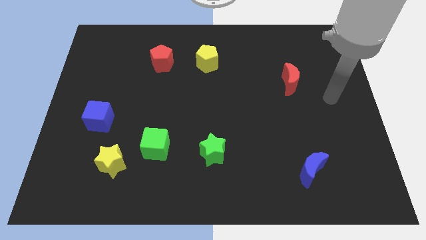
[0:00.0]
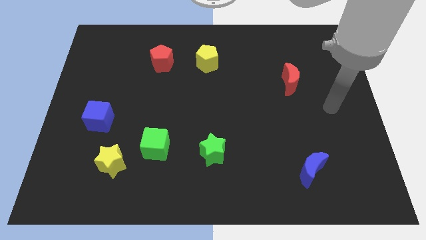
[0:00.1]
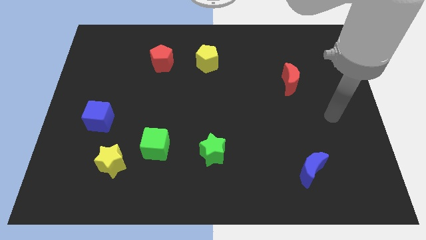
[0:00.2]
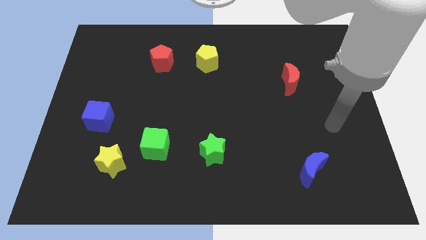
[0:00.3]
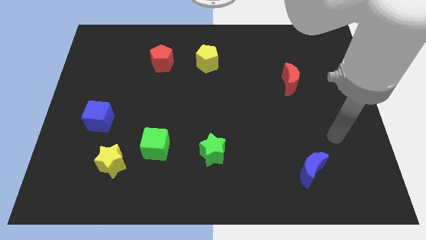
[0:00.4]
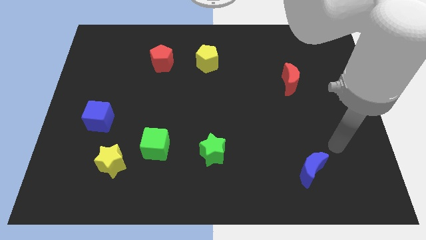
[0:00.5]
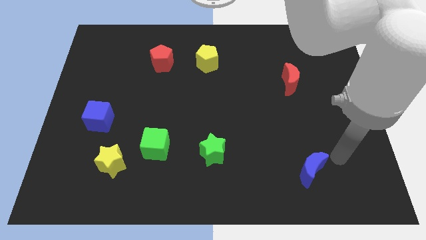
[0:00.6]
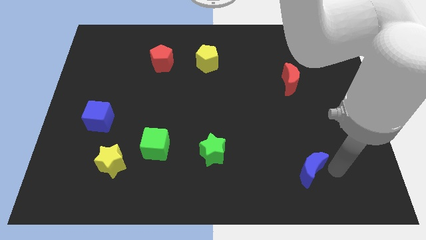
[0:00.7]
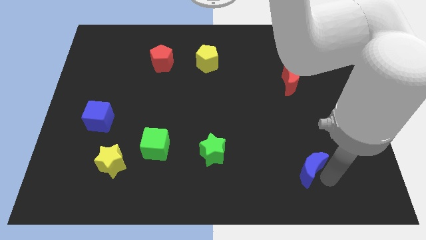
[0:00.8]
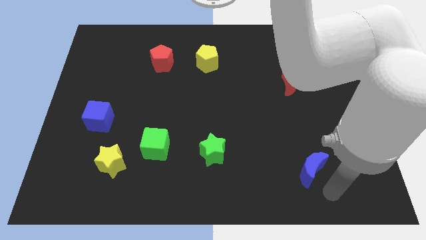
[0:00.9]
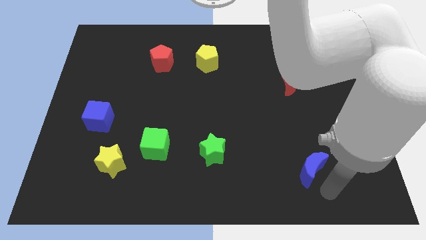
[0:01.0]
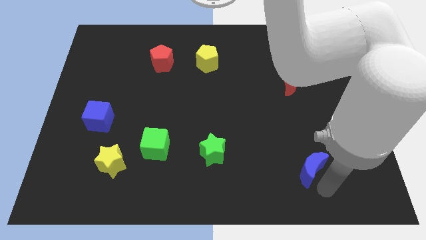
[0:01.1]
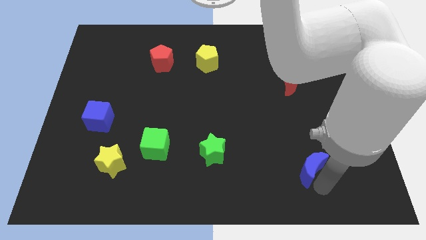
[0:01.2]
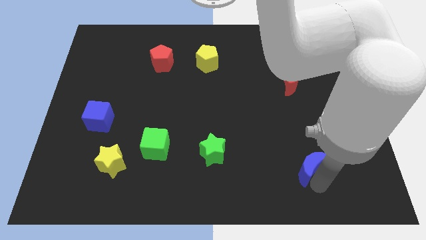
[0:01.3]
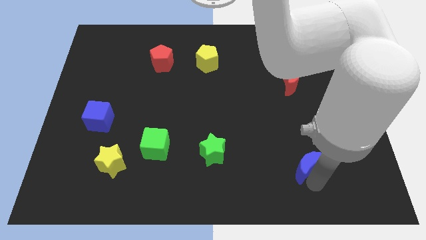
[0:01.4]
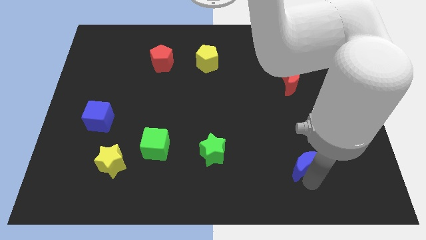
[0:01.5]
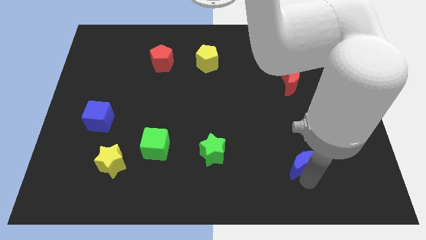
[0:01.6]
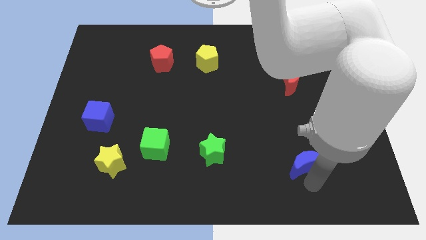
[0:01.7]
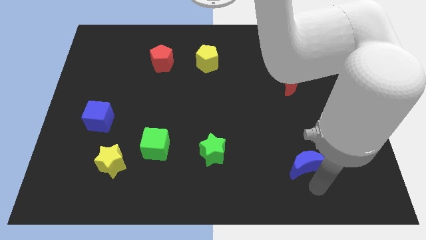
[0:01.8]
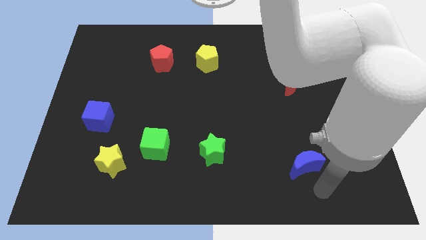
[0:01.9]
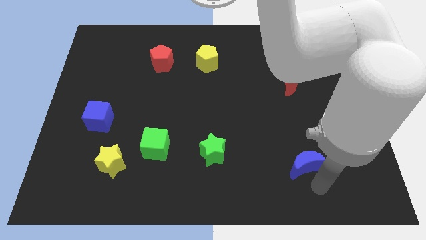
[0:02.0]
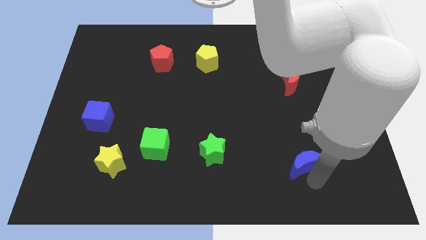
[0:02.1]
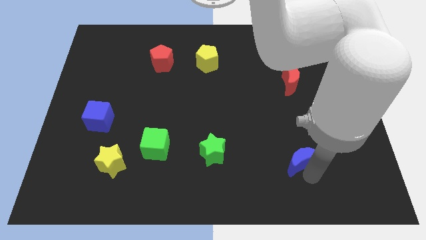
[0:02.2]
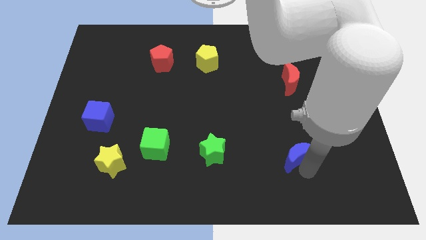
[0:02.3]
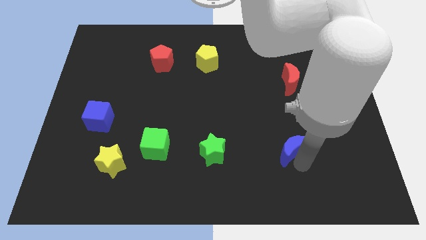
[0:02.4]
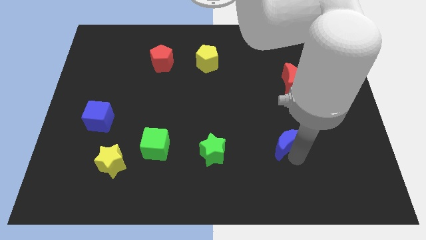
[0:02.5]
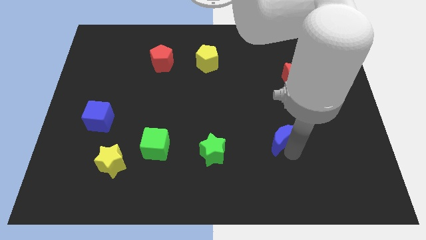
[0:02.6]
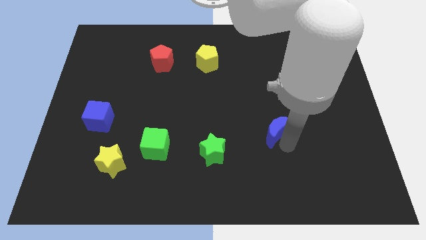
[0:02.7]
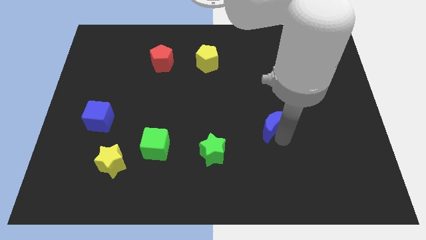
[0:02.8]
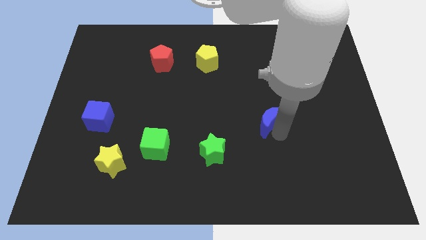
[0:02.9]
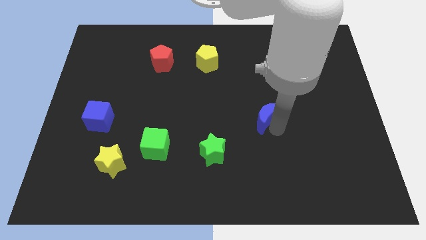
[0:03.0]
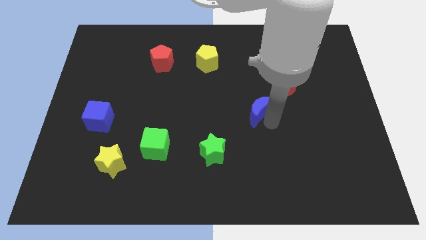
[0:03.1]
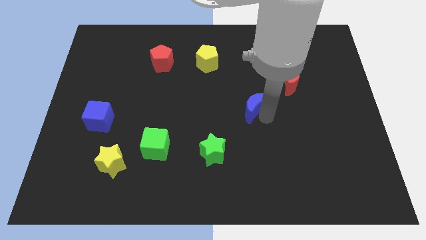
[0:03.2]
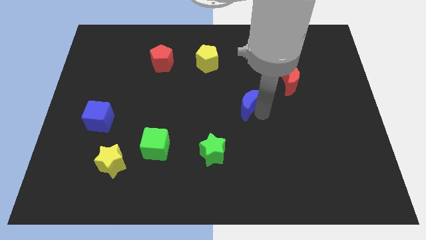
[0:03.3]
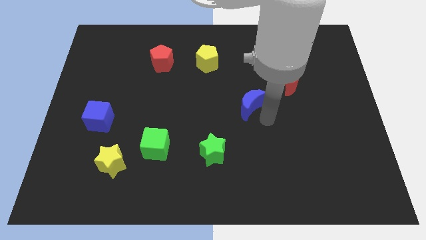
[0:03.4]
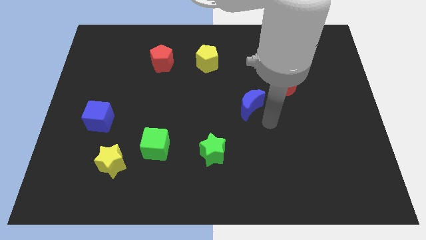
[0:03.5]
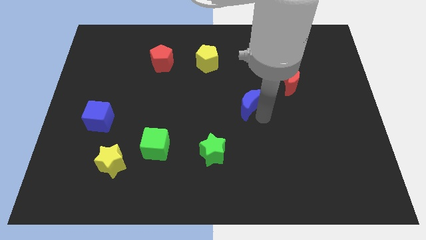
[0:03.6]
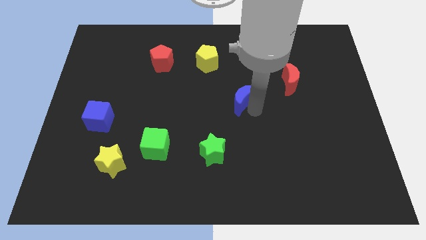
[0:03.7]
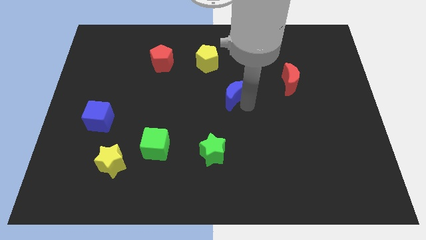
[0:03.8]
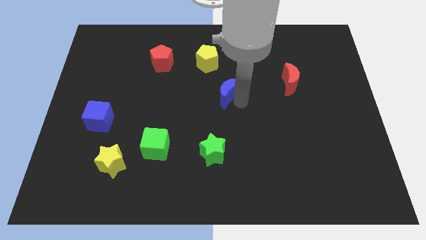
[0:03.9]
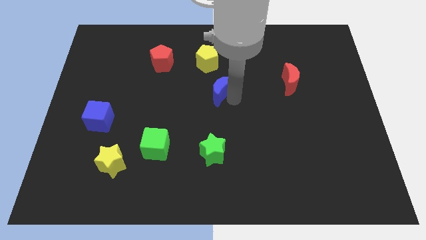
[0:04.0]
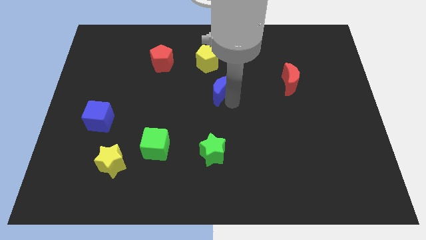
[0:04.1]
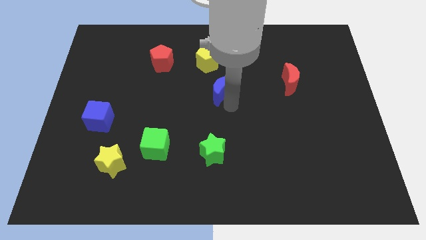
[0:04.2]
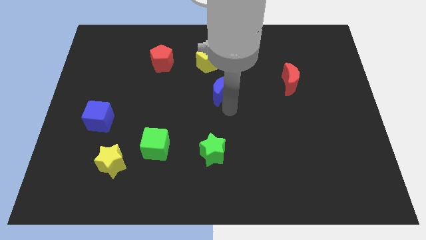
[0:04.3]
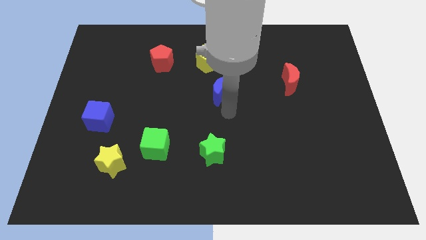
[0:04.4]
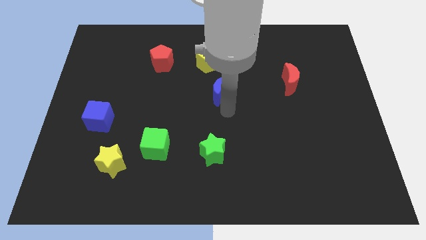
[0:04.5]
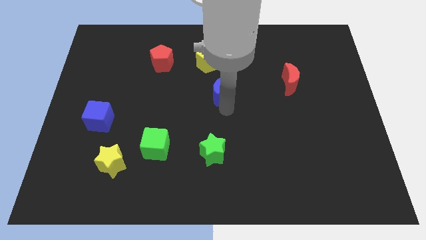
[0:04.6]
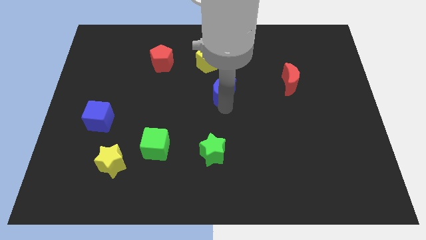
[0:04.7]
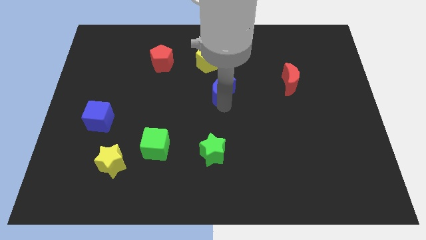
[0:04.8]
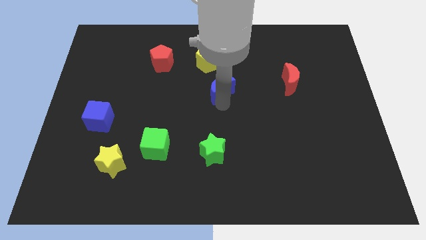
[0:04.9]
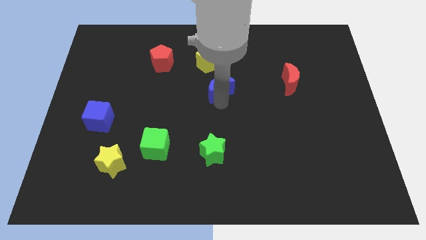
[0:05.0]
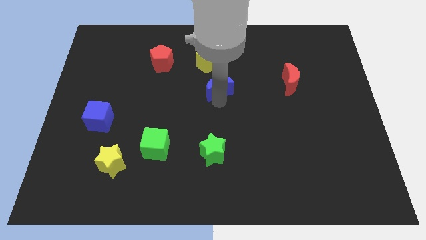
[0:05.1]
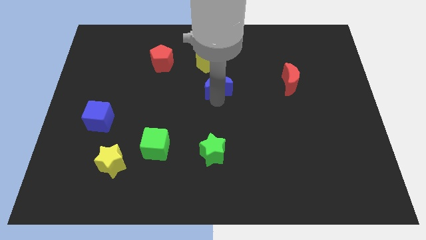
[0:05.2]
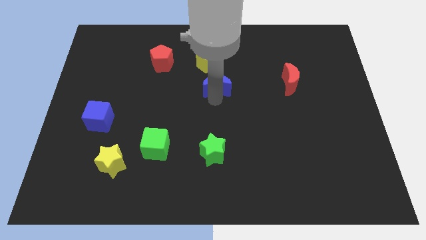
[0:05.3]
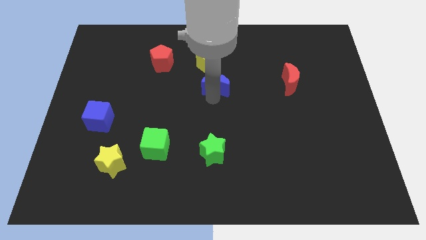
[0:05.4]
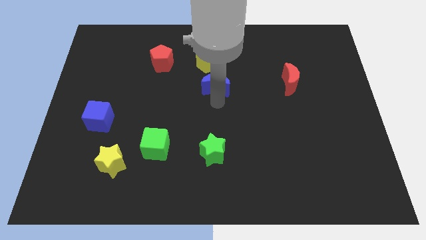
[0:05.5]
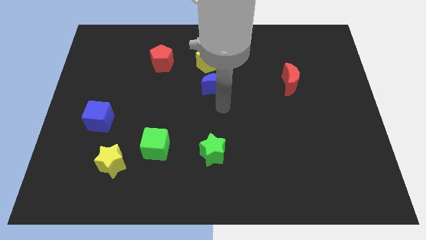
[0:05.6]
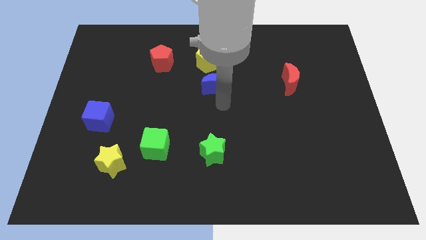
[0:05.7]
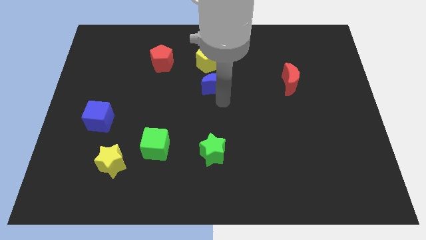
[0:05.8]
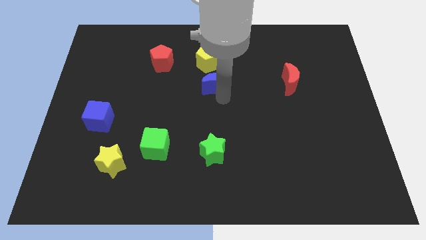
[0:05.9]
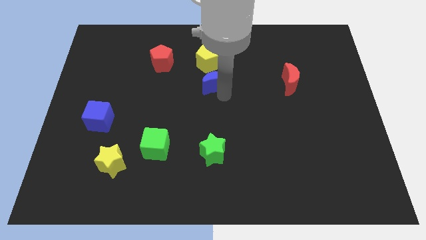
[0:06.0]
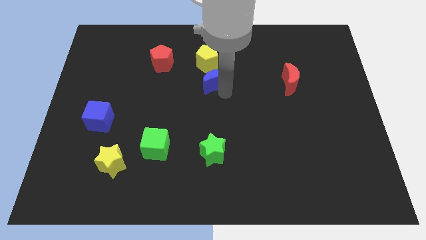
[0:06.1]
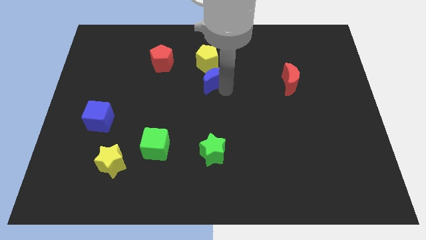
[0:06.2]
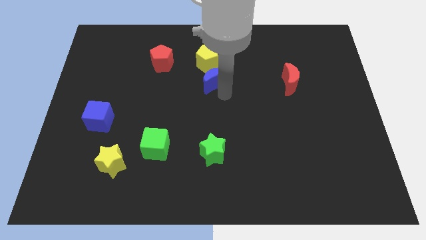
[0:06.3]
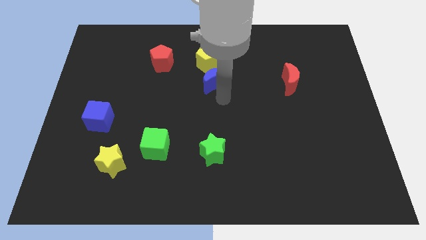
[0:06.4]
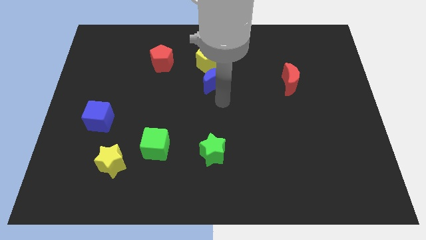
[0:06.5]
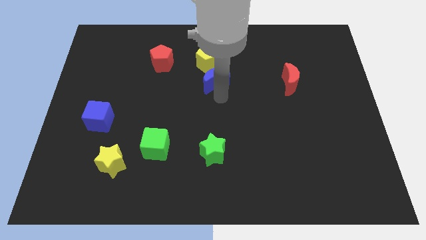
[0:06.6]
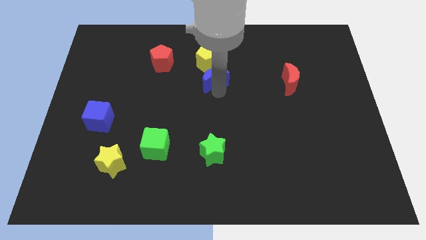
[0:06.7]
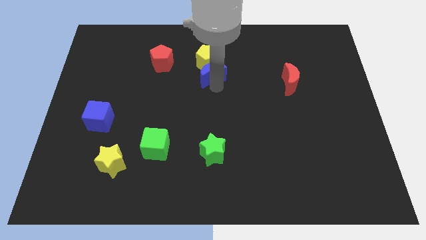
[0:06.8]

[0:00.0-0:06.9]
move the blue moon close to the yellow pentagon

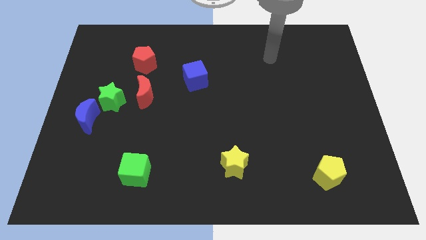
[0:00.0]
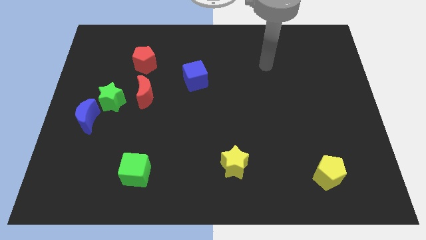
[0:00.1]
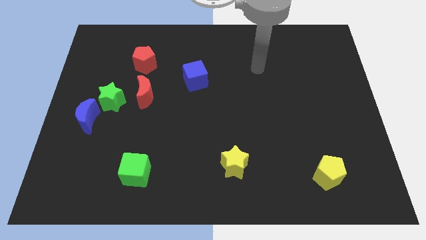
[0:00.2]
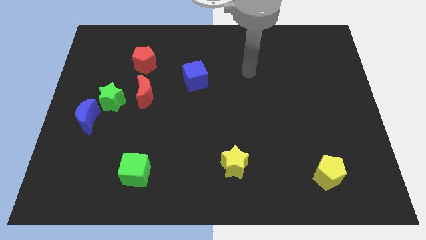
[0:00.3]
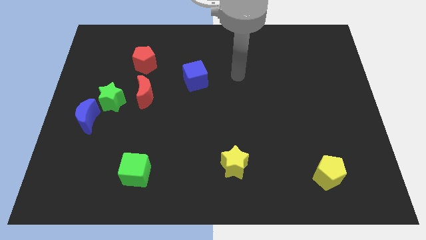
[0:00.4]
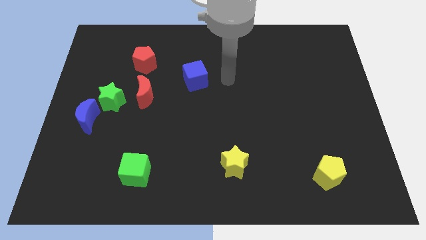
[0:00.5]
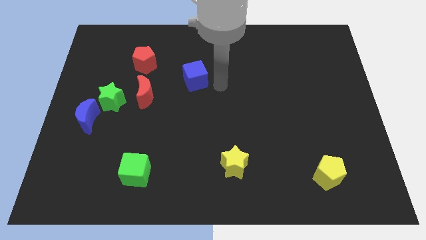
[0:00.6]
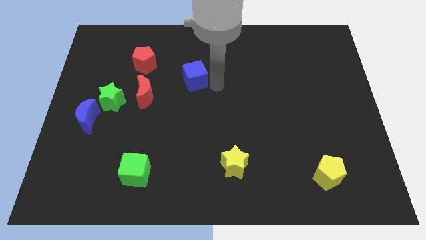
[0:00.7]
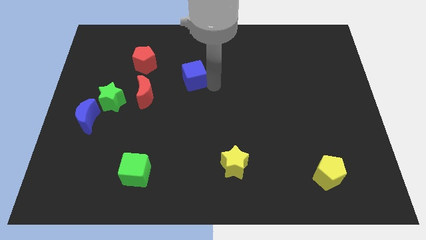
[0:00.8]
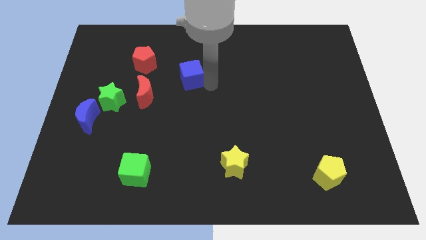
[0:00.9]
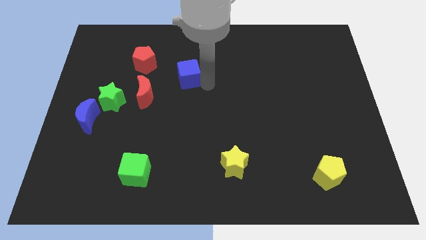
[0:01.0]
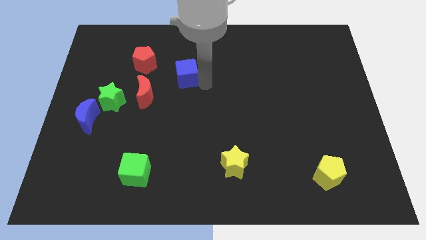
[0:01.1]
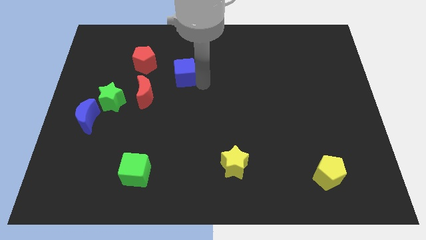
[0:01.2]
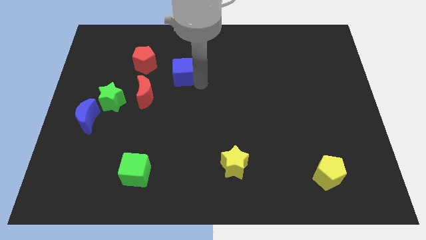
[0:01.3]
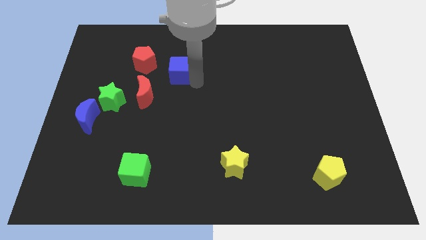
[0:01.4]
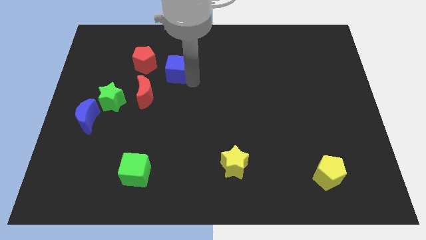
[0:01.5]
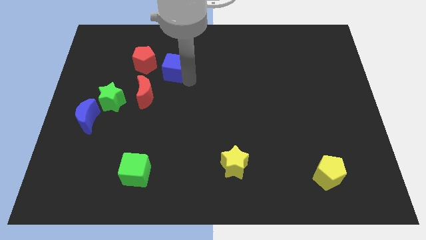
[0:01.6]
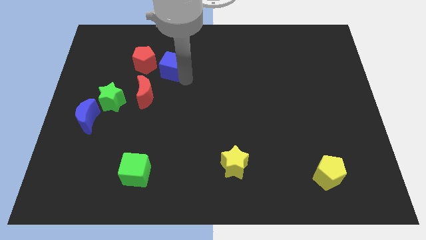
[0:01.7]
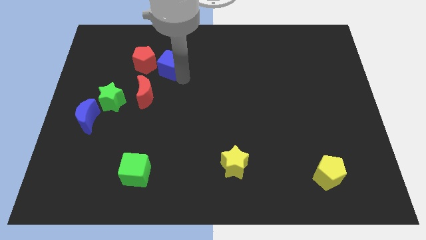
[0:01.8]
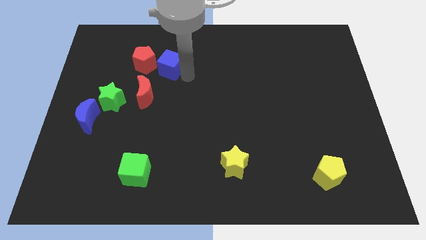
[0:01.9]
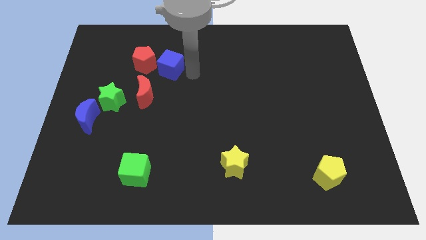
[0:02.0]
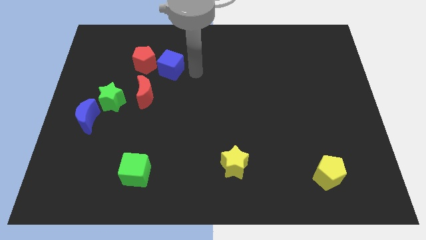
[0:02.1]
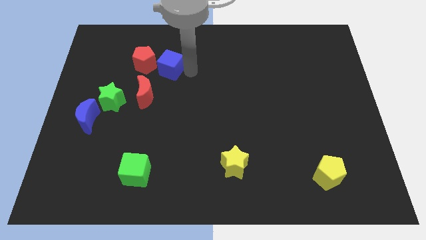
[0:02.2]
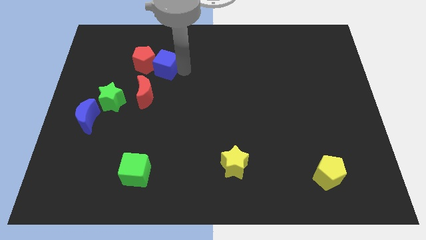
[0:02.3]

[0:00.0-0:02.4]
put the blue cube towards the red pentagon
